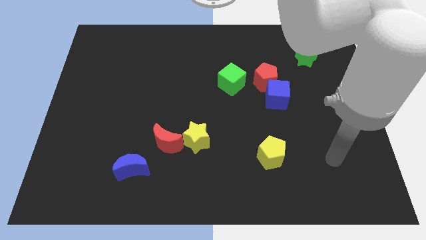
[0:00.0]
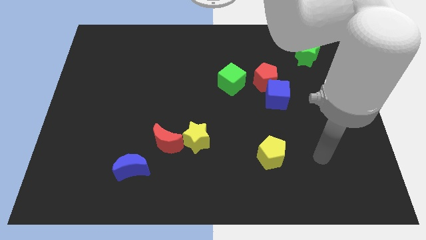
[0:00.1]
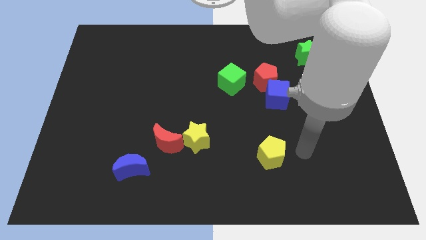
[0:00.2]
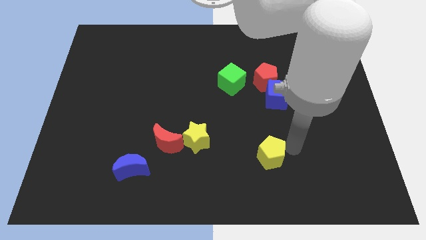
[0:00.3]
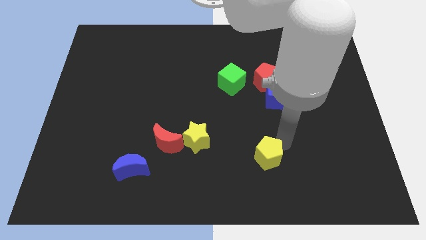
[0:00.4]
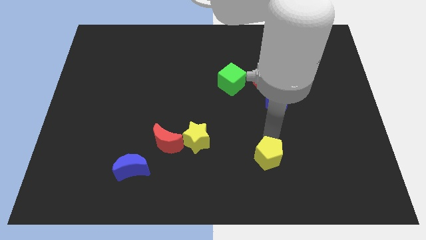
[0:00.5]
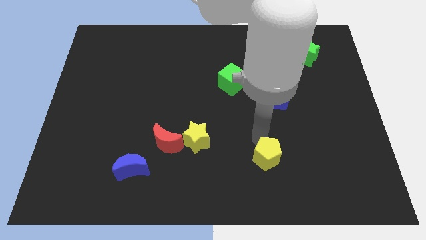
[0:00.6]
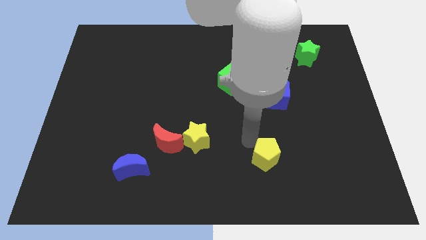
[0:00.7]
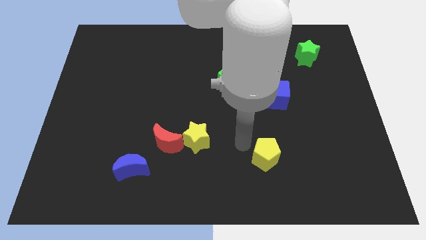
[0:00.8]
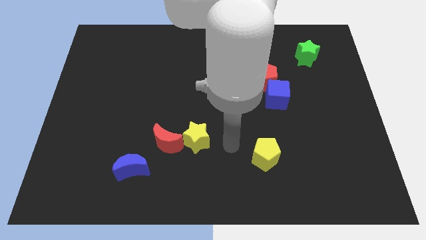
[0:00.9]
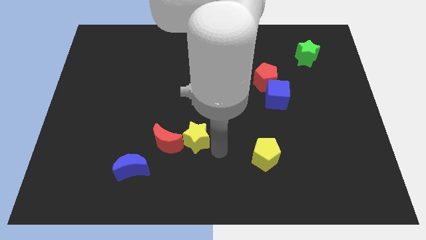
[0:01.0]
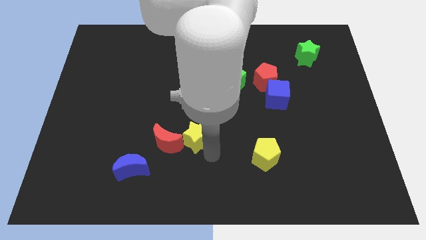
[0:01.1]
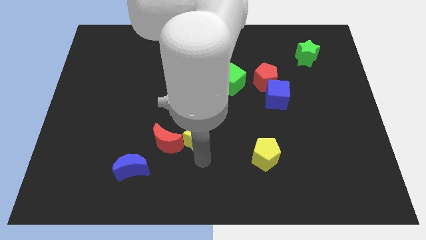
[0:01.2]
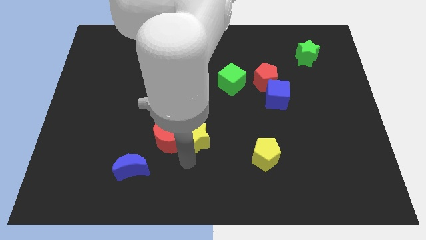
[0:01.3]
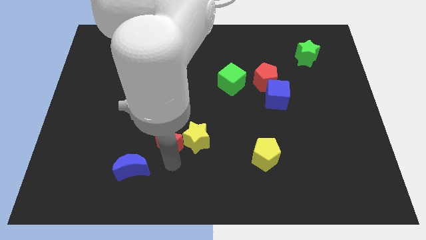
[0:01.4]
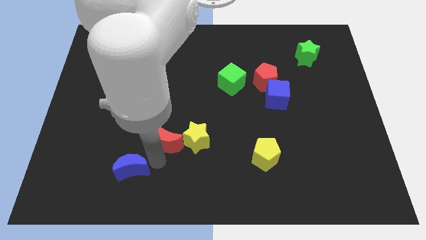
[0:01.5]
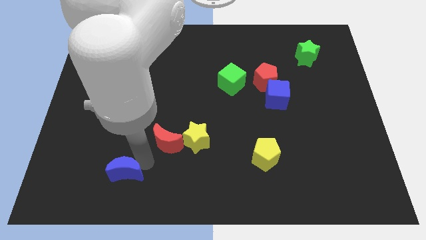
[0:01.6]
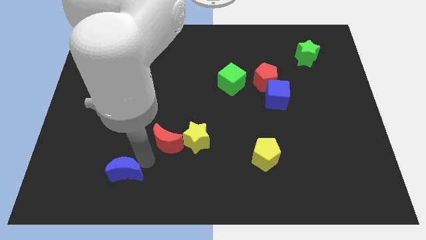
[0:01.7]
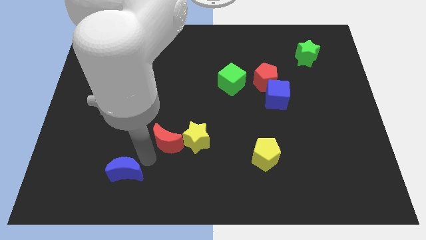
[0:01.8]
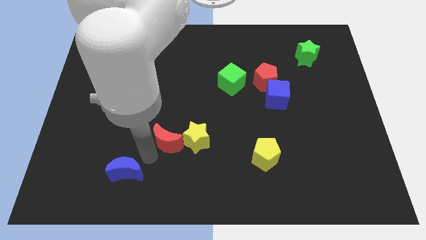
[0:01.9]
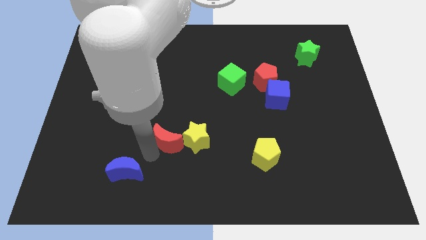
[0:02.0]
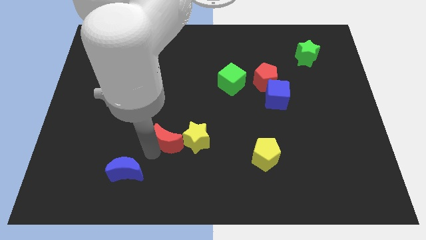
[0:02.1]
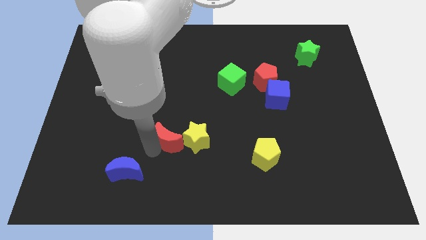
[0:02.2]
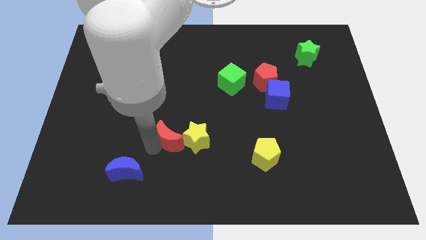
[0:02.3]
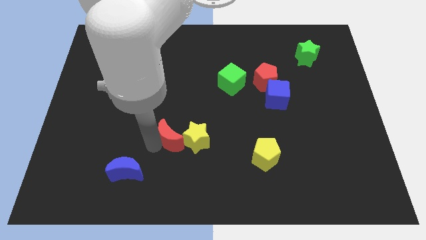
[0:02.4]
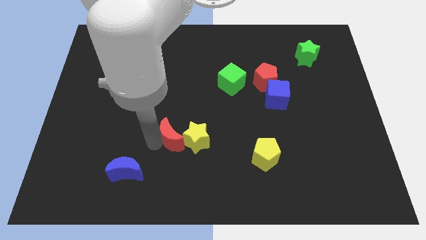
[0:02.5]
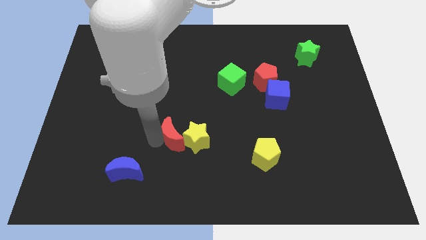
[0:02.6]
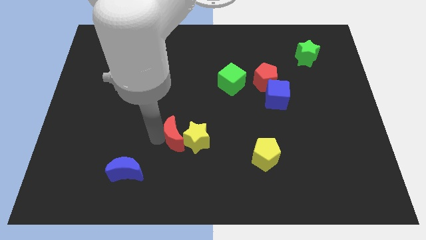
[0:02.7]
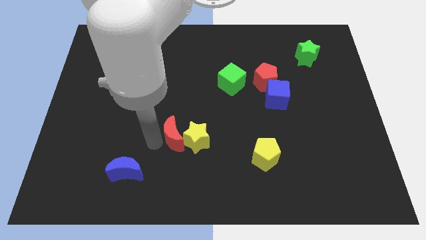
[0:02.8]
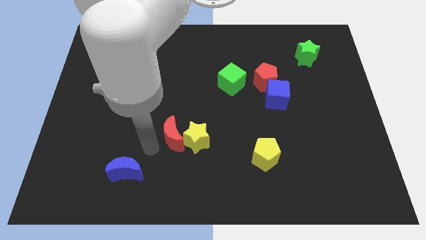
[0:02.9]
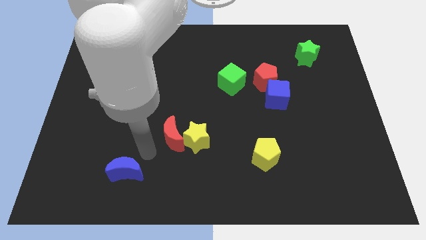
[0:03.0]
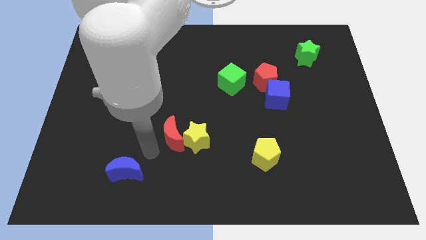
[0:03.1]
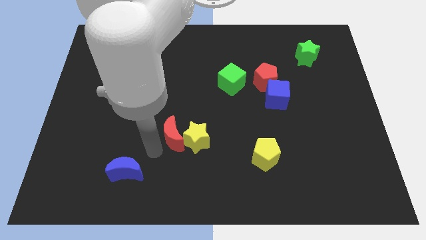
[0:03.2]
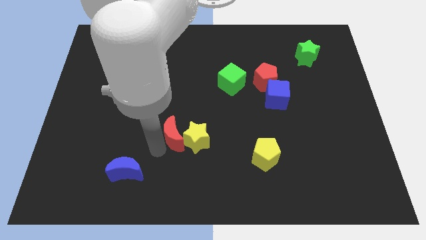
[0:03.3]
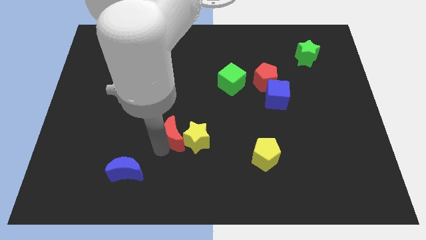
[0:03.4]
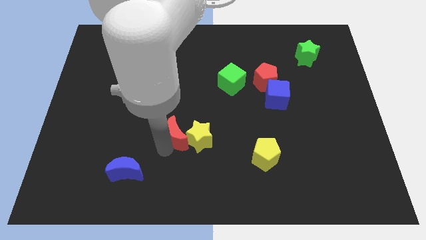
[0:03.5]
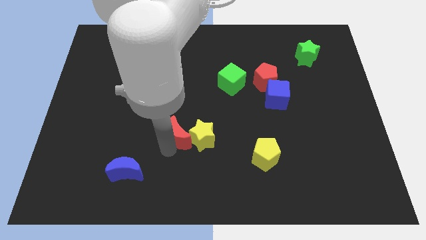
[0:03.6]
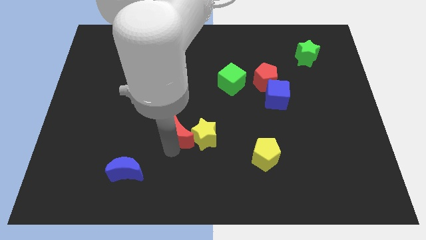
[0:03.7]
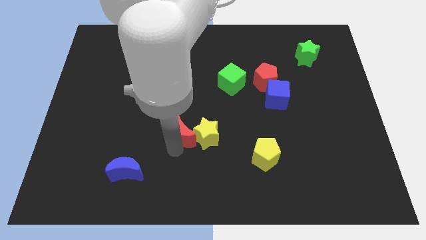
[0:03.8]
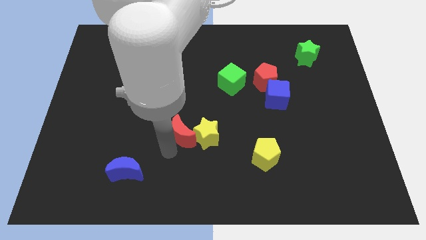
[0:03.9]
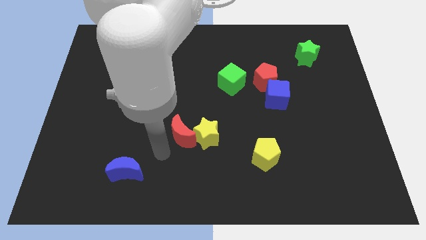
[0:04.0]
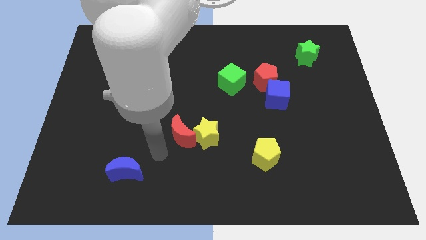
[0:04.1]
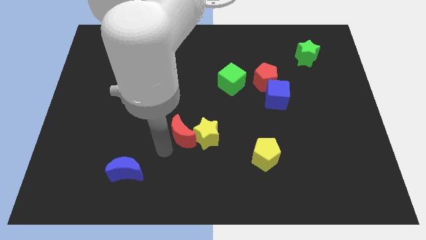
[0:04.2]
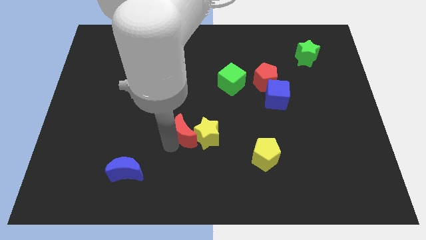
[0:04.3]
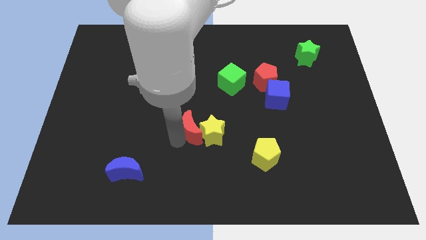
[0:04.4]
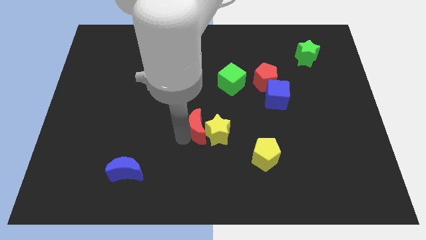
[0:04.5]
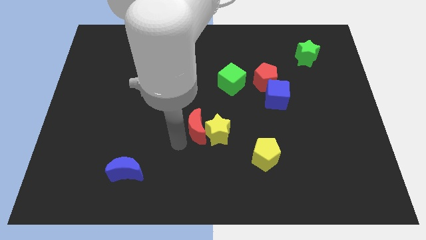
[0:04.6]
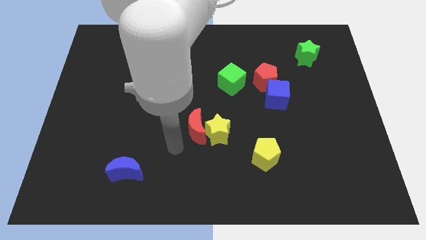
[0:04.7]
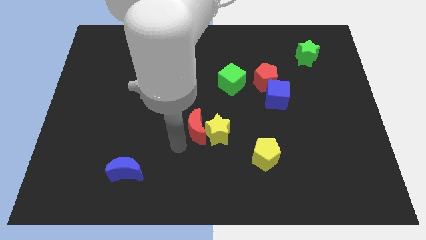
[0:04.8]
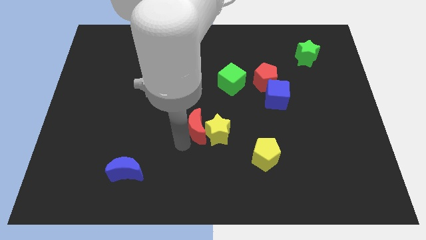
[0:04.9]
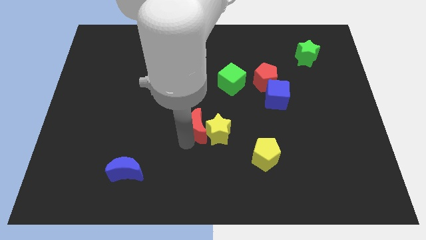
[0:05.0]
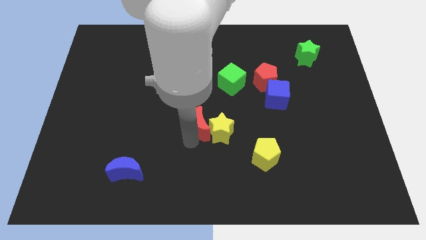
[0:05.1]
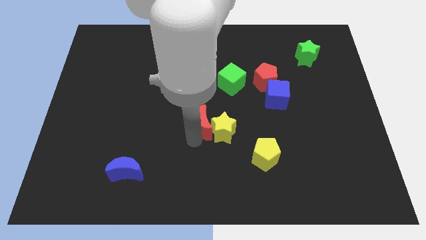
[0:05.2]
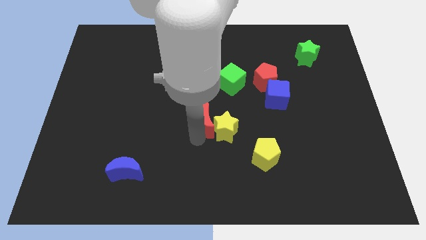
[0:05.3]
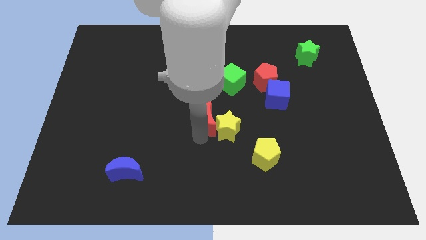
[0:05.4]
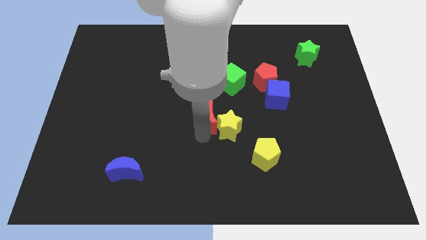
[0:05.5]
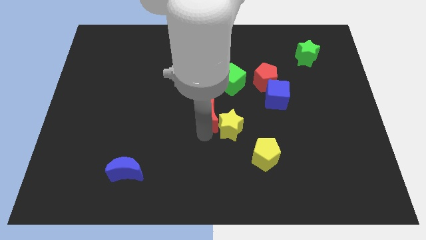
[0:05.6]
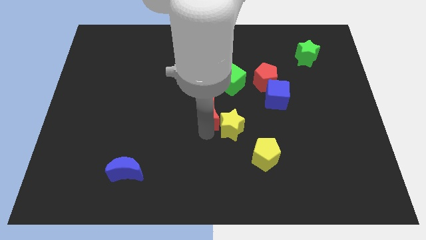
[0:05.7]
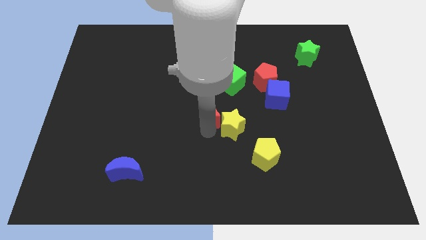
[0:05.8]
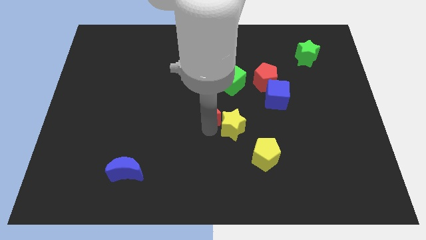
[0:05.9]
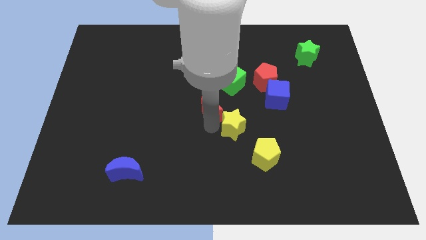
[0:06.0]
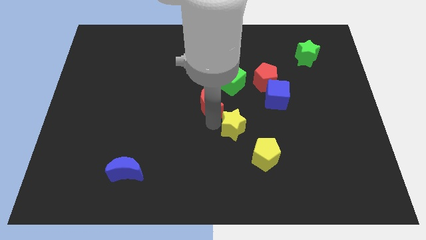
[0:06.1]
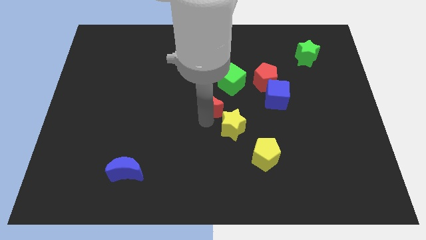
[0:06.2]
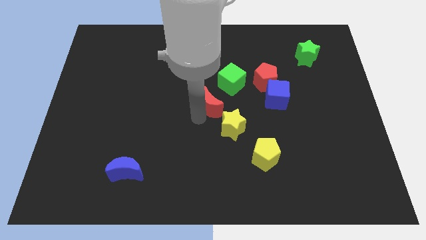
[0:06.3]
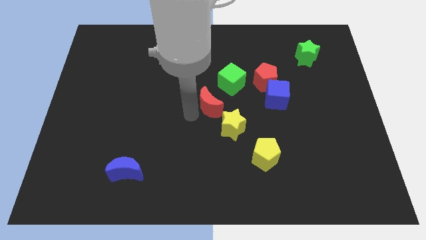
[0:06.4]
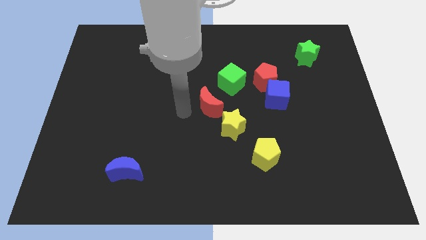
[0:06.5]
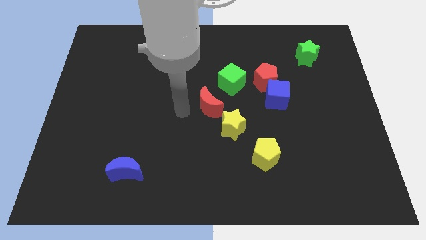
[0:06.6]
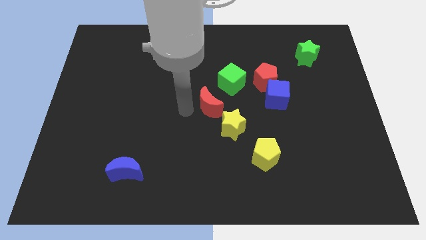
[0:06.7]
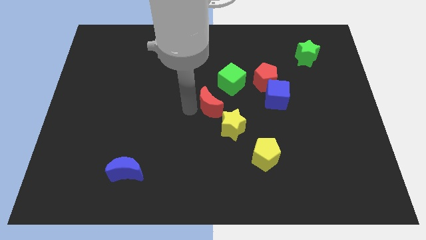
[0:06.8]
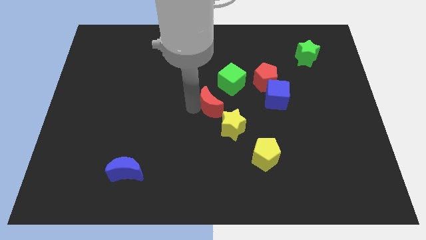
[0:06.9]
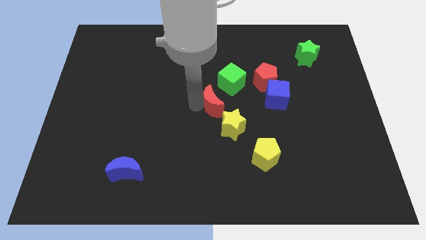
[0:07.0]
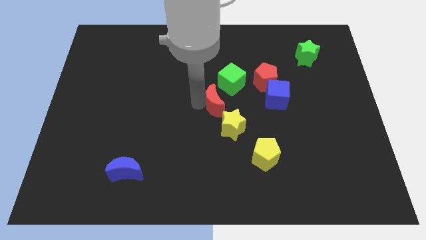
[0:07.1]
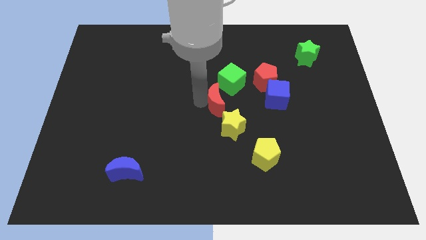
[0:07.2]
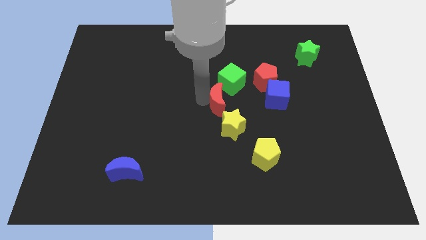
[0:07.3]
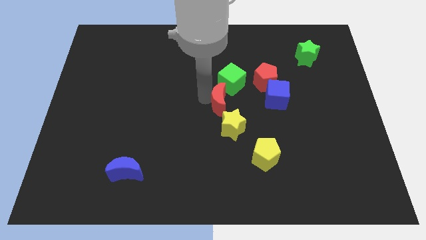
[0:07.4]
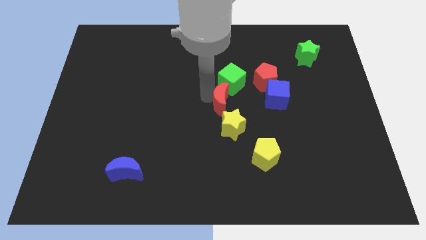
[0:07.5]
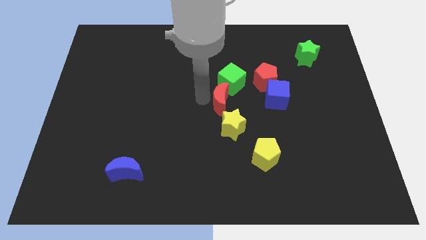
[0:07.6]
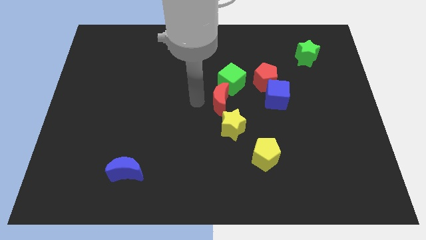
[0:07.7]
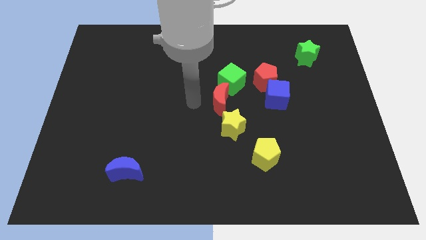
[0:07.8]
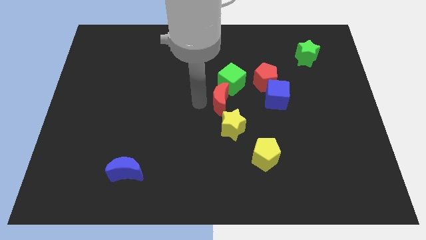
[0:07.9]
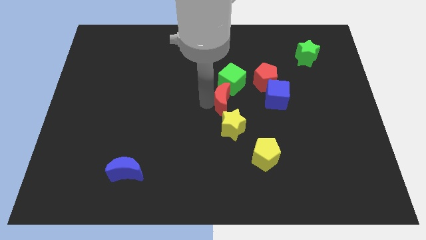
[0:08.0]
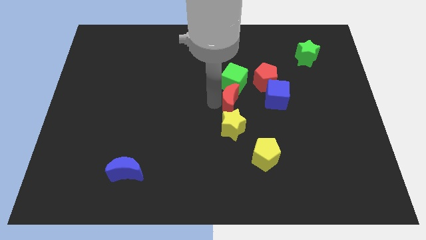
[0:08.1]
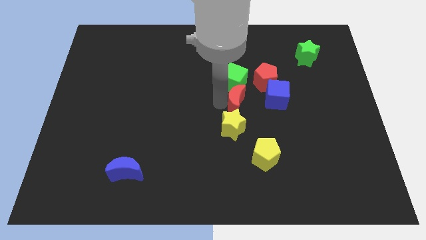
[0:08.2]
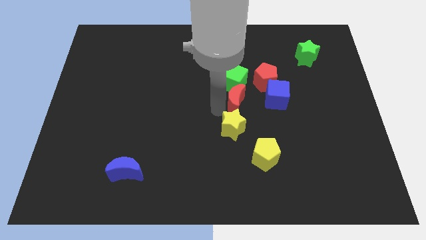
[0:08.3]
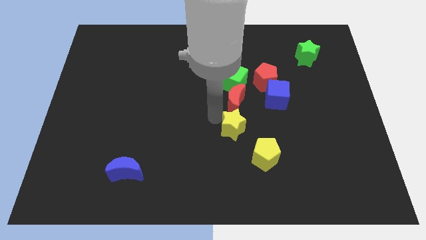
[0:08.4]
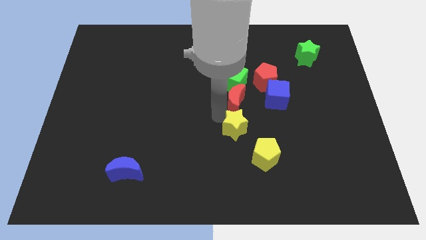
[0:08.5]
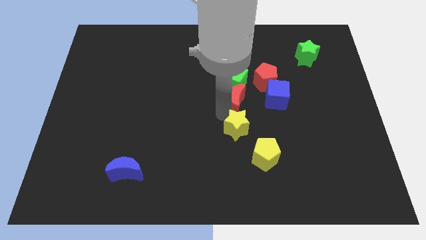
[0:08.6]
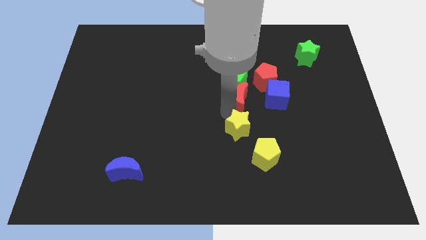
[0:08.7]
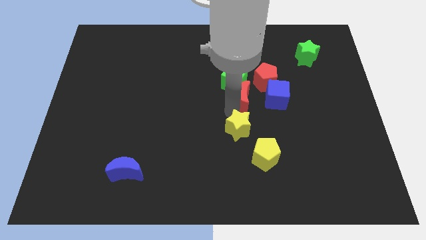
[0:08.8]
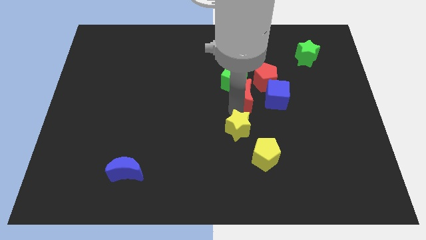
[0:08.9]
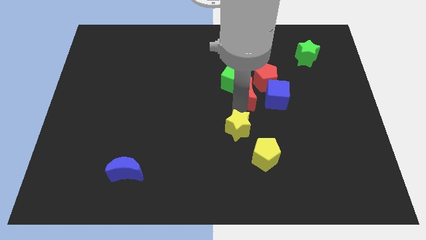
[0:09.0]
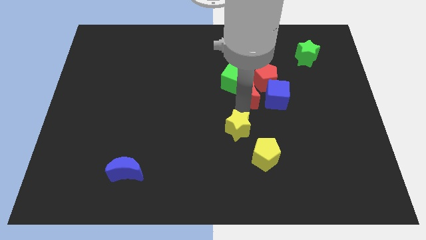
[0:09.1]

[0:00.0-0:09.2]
push the red moon close to the red pentagon
